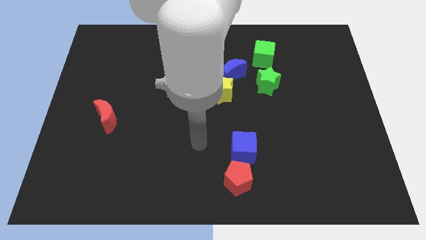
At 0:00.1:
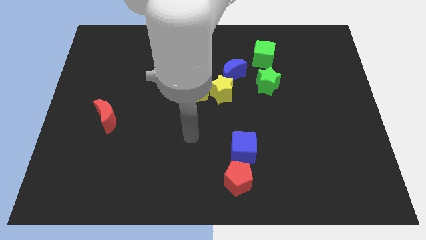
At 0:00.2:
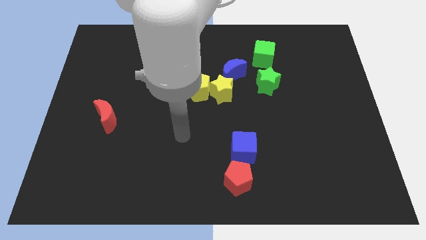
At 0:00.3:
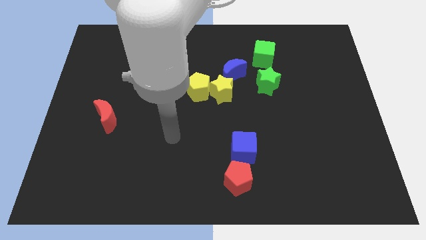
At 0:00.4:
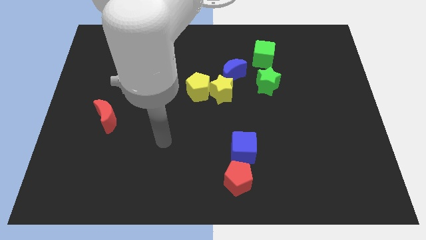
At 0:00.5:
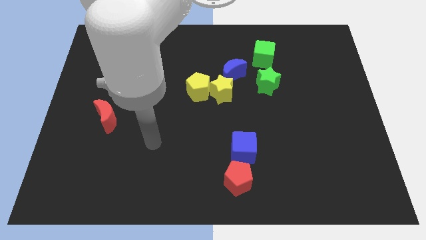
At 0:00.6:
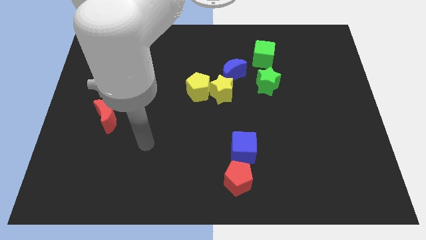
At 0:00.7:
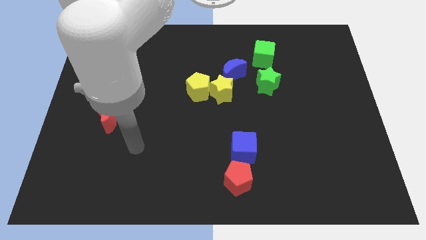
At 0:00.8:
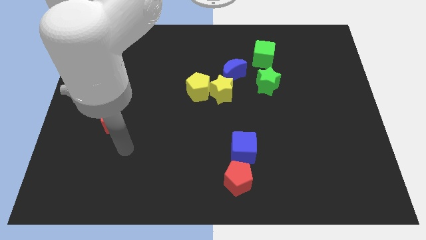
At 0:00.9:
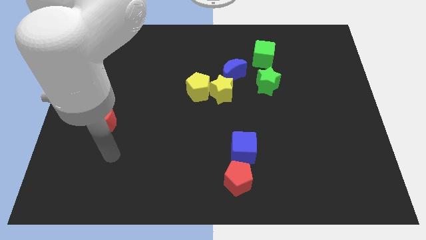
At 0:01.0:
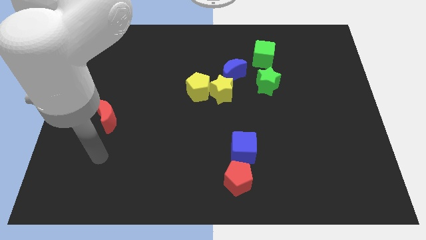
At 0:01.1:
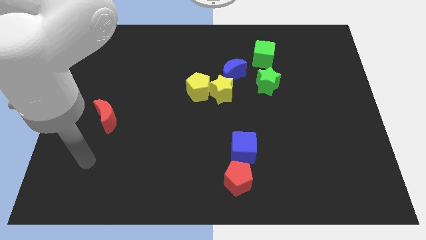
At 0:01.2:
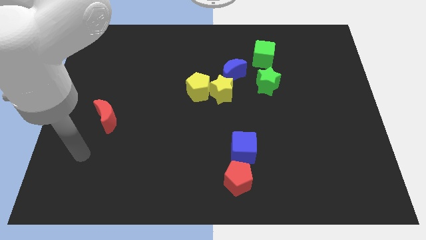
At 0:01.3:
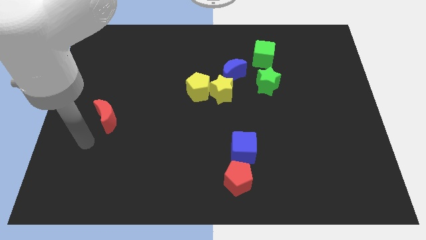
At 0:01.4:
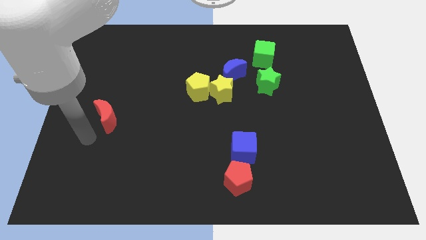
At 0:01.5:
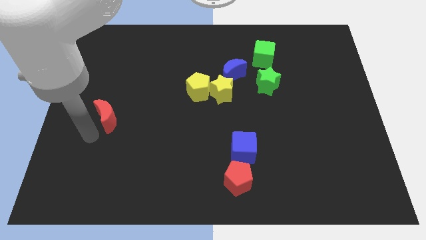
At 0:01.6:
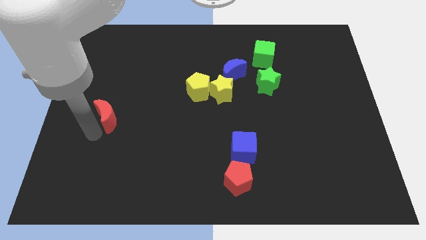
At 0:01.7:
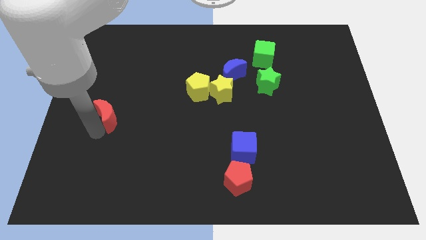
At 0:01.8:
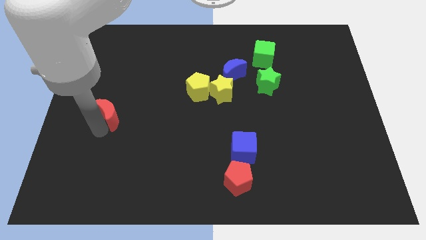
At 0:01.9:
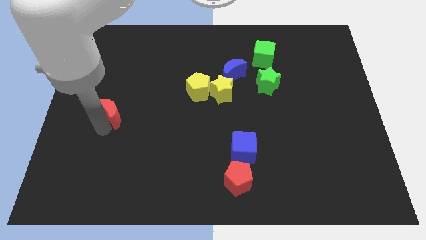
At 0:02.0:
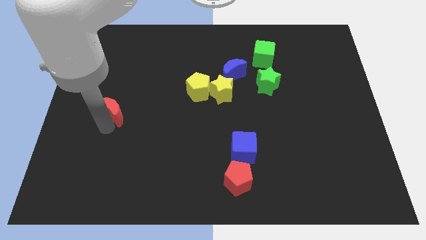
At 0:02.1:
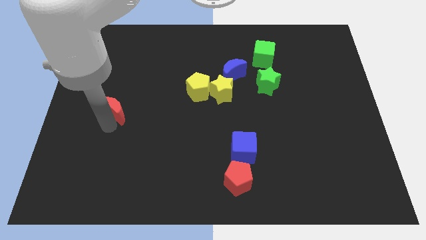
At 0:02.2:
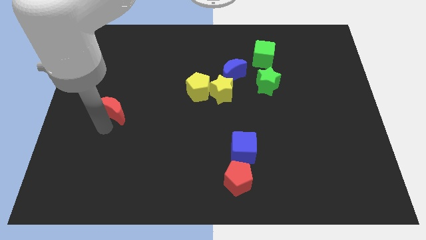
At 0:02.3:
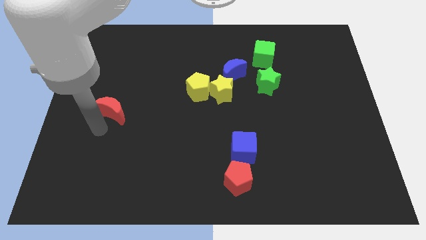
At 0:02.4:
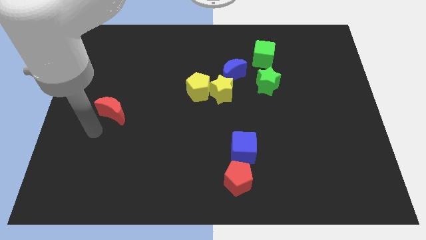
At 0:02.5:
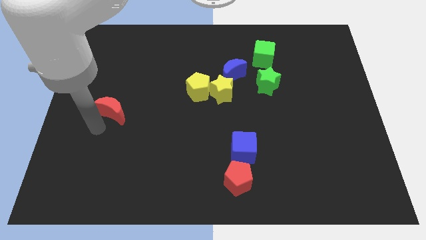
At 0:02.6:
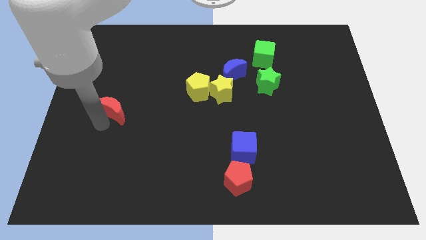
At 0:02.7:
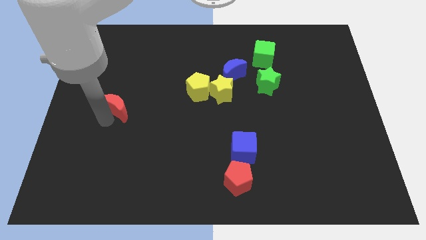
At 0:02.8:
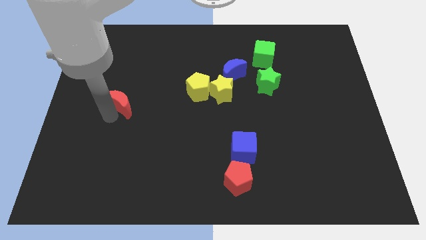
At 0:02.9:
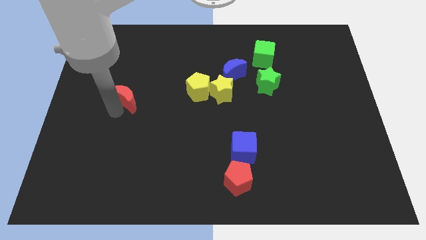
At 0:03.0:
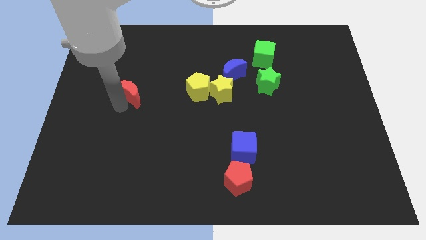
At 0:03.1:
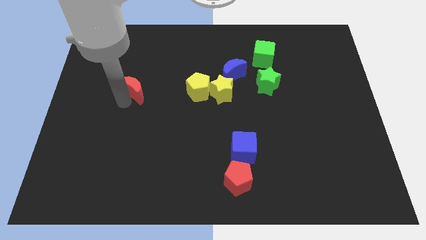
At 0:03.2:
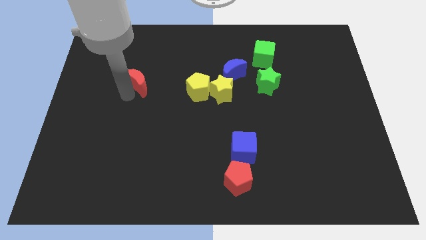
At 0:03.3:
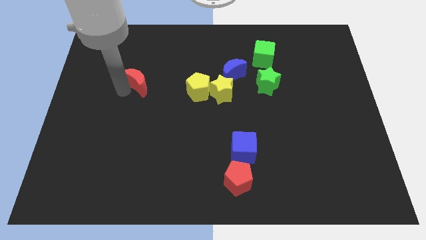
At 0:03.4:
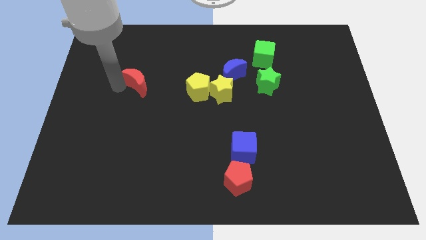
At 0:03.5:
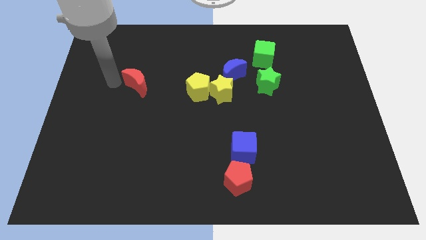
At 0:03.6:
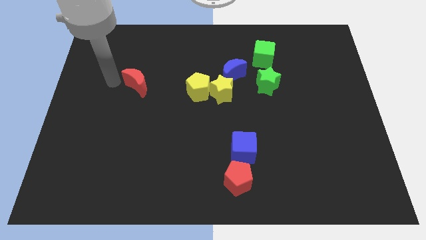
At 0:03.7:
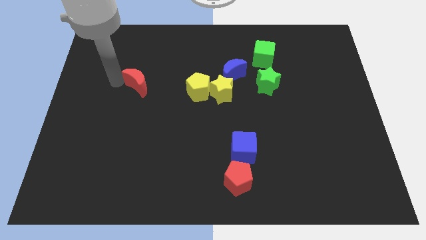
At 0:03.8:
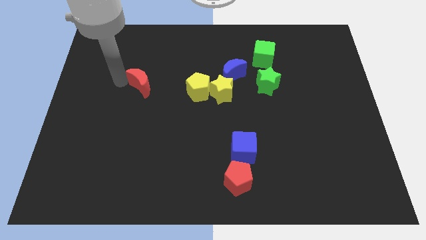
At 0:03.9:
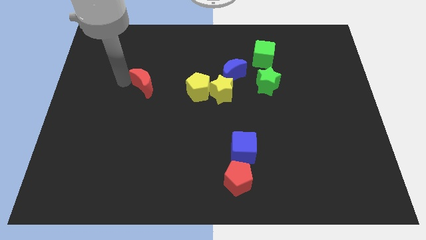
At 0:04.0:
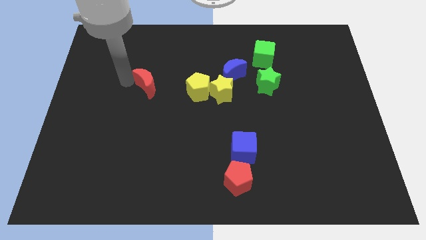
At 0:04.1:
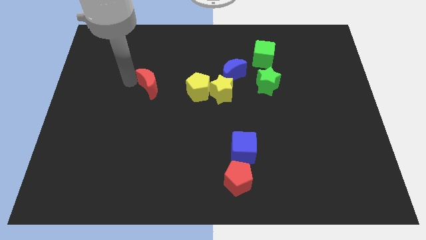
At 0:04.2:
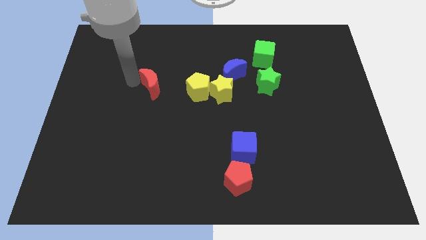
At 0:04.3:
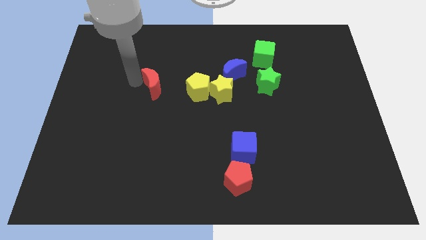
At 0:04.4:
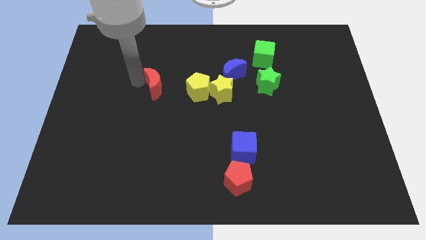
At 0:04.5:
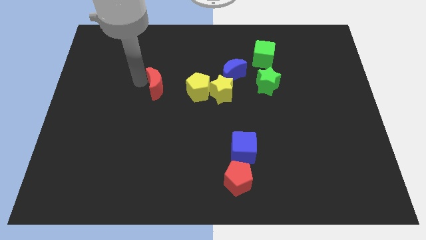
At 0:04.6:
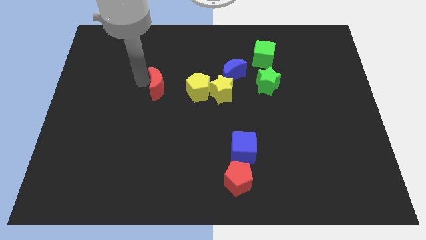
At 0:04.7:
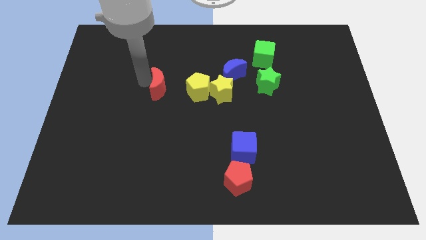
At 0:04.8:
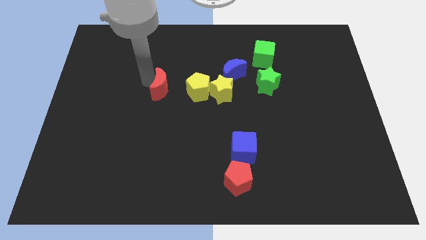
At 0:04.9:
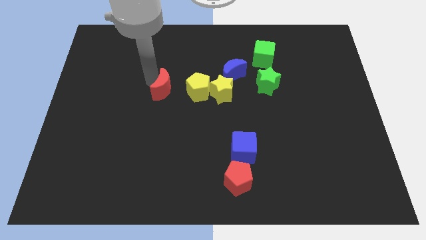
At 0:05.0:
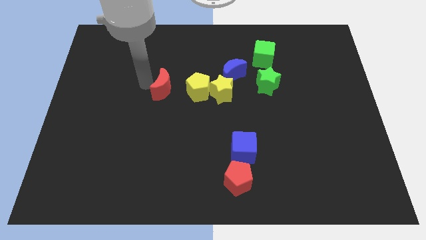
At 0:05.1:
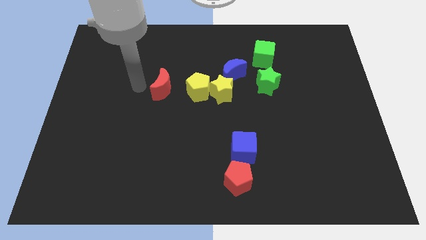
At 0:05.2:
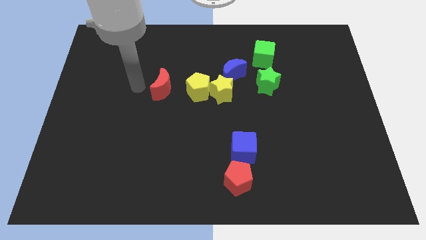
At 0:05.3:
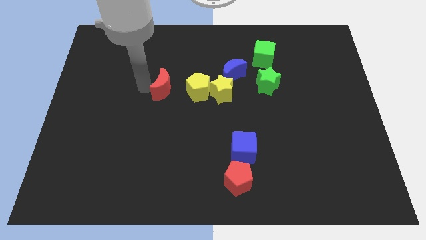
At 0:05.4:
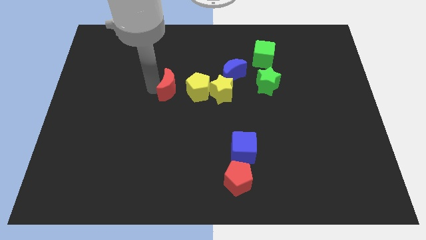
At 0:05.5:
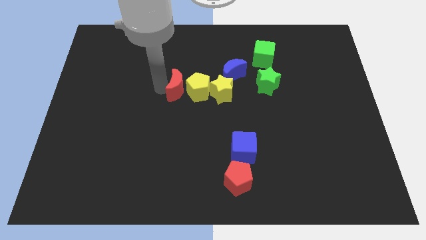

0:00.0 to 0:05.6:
push the red moon close to the yellow pentagon

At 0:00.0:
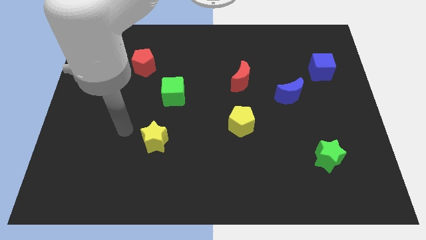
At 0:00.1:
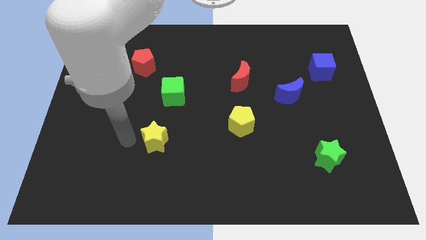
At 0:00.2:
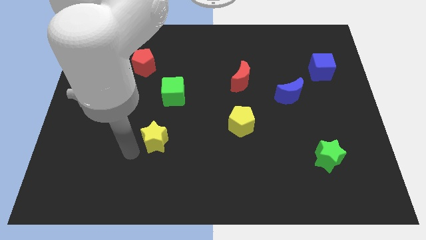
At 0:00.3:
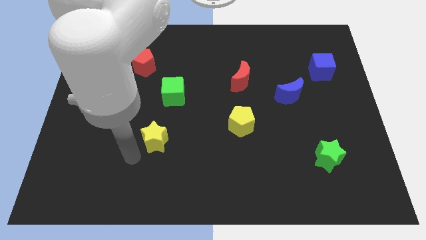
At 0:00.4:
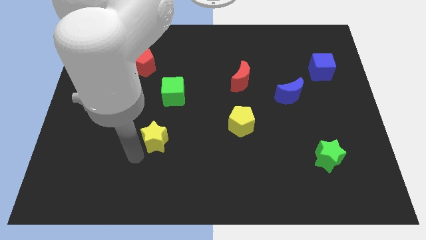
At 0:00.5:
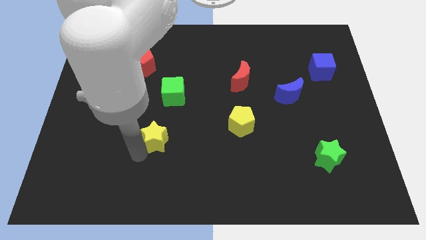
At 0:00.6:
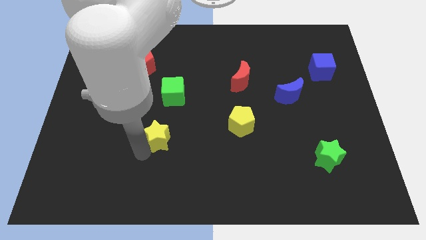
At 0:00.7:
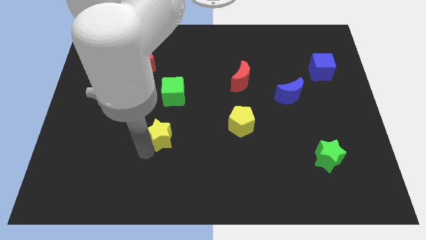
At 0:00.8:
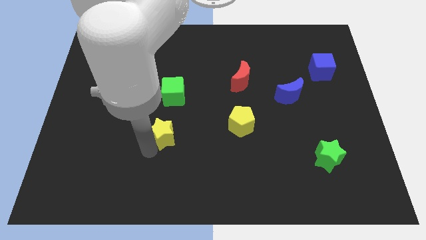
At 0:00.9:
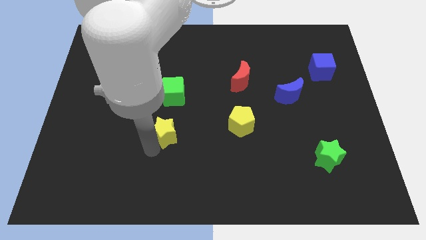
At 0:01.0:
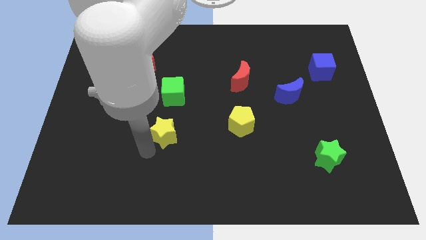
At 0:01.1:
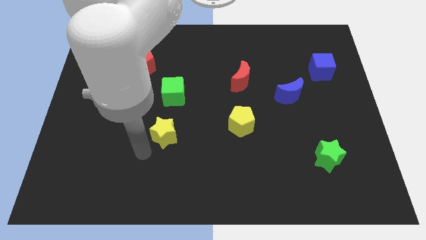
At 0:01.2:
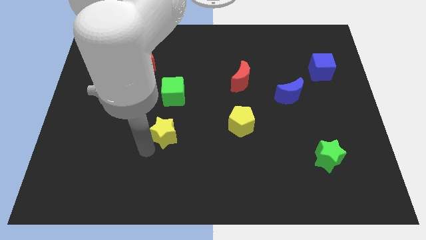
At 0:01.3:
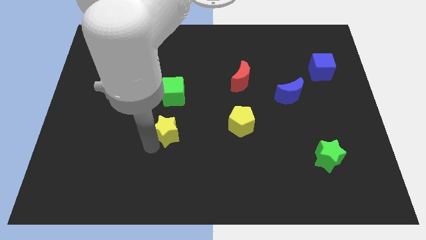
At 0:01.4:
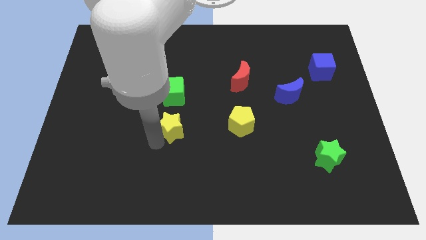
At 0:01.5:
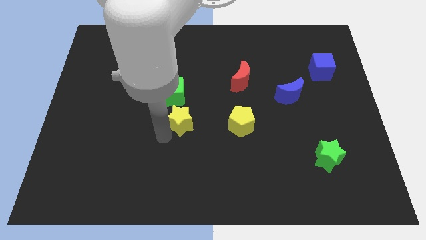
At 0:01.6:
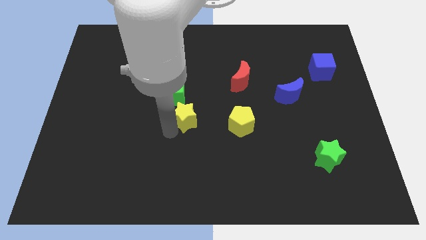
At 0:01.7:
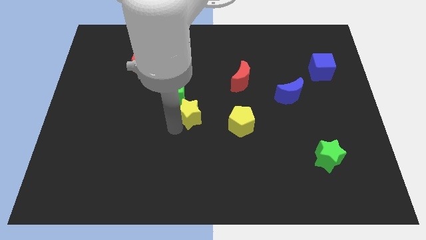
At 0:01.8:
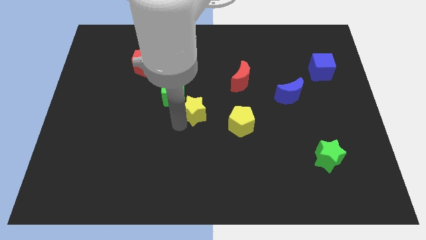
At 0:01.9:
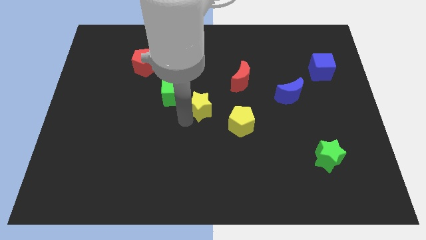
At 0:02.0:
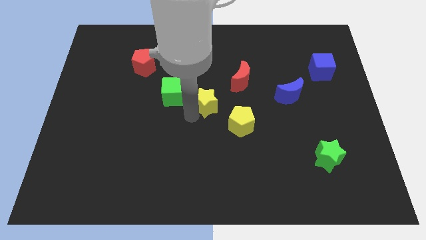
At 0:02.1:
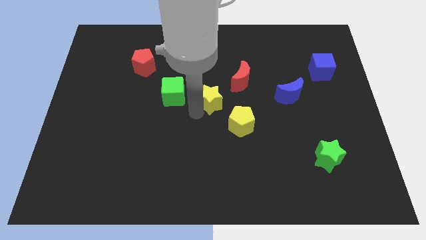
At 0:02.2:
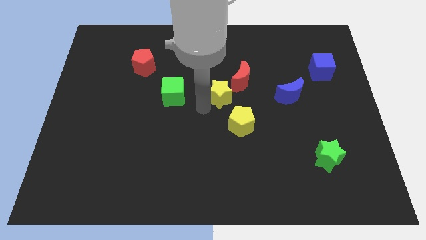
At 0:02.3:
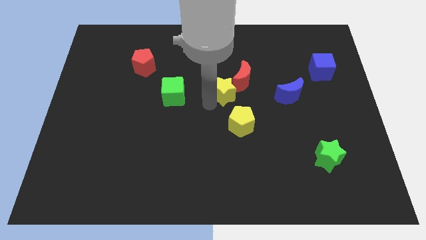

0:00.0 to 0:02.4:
slide the yellow star towards the red moon

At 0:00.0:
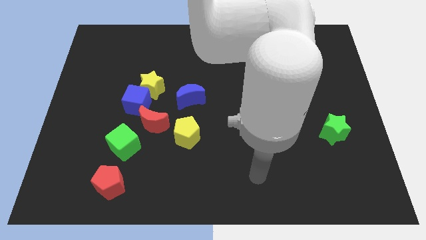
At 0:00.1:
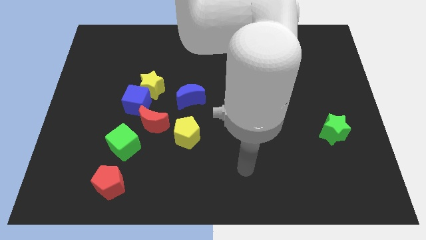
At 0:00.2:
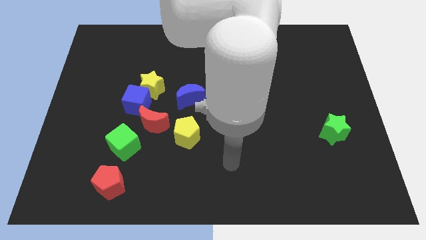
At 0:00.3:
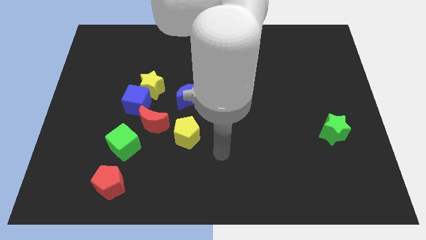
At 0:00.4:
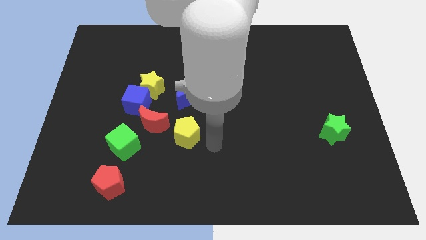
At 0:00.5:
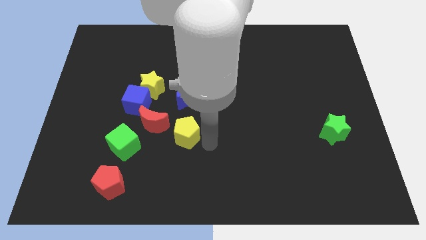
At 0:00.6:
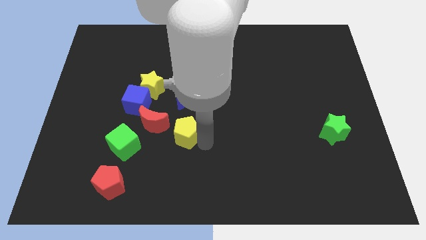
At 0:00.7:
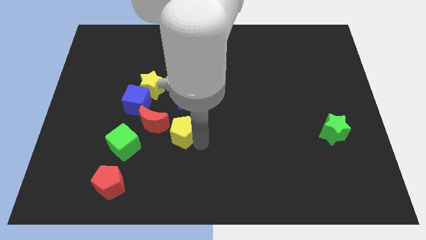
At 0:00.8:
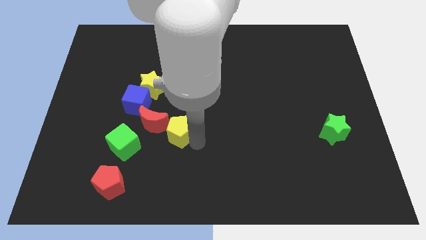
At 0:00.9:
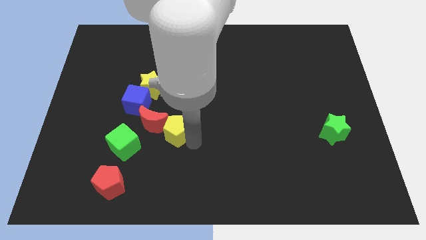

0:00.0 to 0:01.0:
move the yellow pentagon next to the red moon
